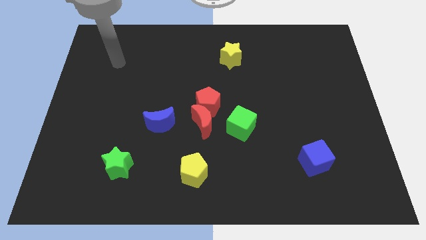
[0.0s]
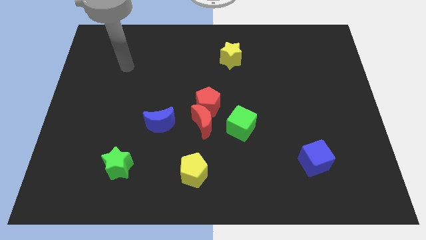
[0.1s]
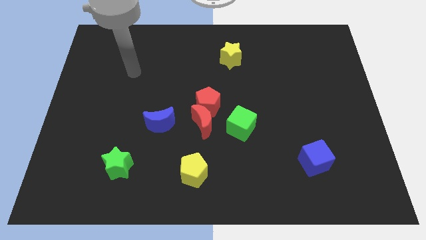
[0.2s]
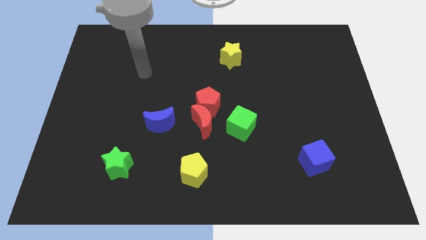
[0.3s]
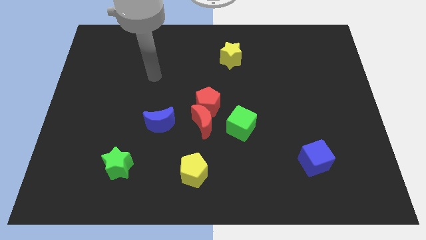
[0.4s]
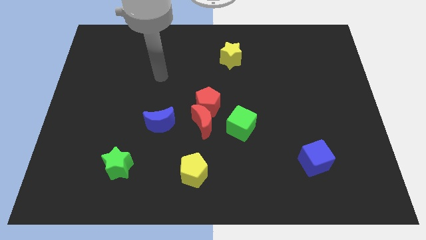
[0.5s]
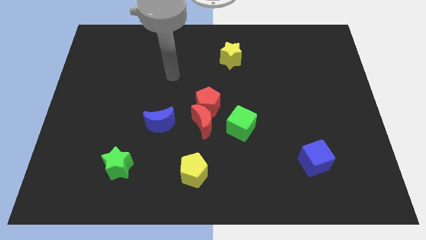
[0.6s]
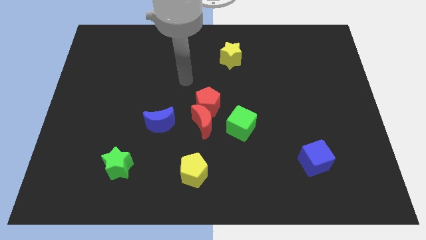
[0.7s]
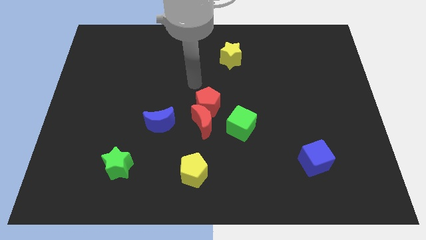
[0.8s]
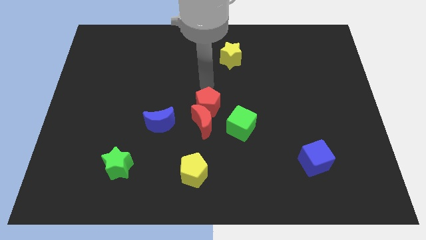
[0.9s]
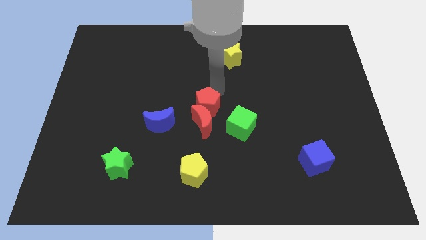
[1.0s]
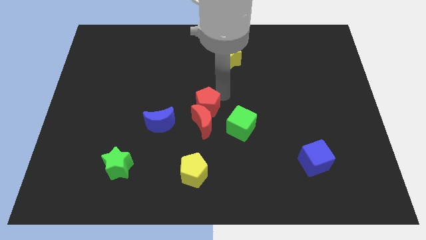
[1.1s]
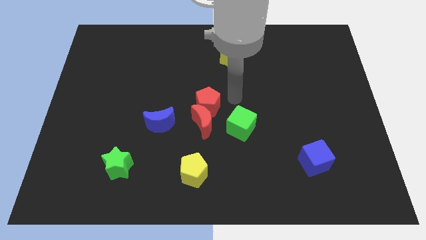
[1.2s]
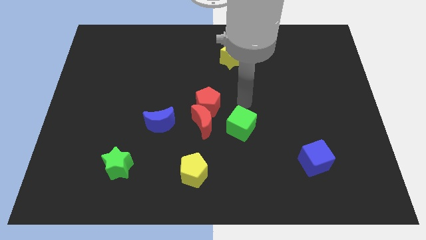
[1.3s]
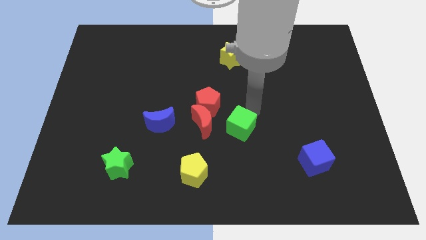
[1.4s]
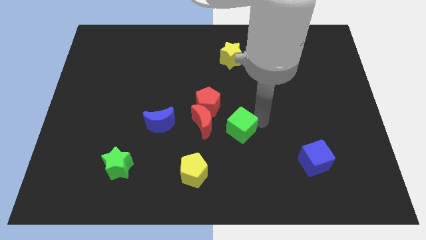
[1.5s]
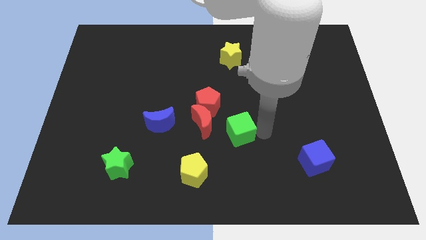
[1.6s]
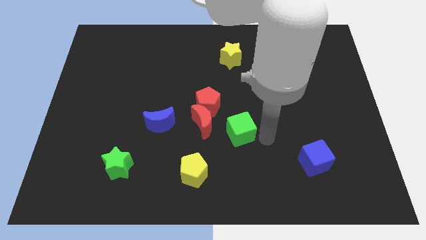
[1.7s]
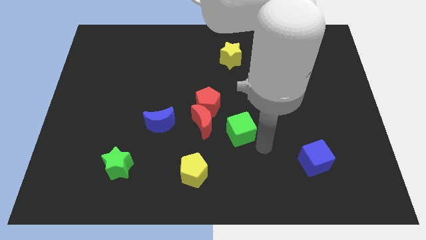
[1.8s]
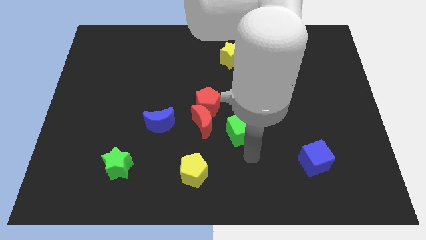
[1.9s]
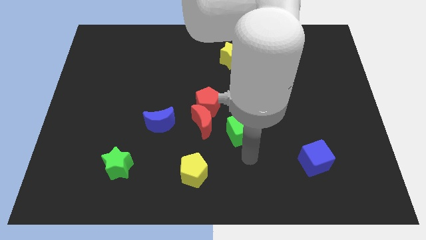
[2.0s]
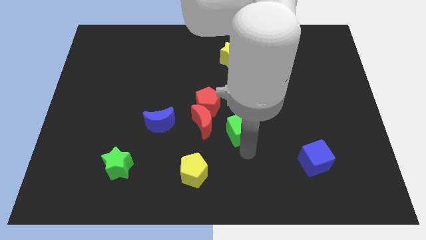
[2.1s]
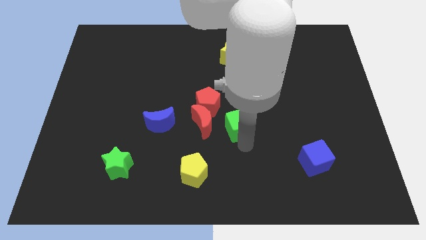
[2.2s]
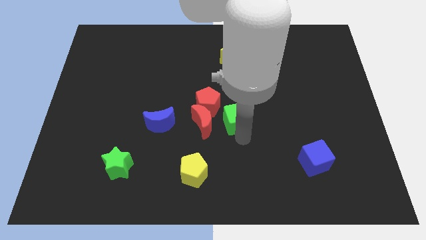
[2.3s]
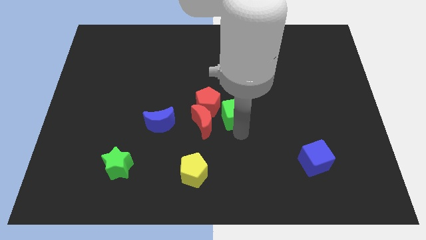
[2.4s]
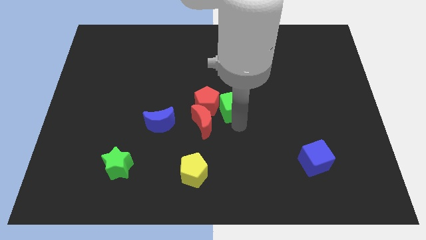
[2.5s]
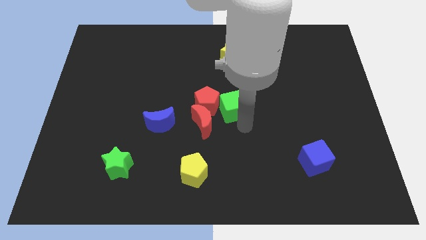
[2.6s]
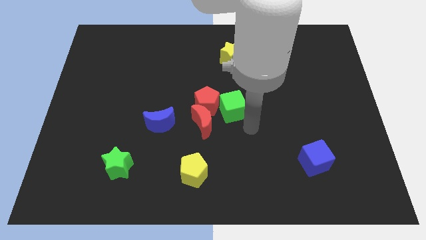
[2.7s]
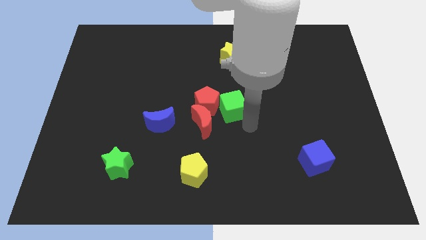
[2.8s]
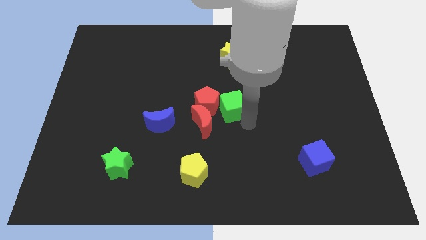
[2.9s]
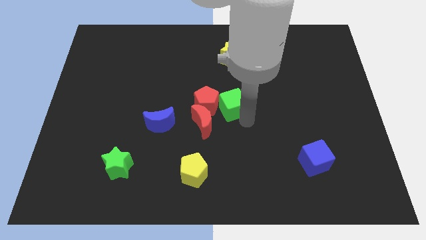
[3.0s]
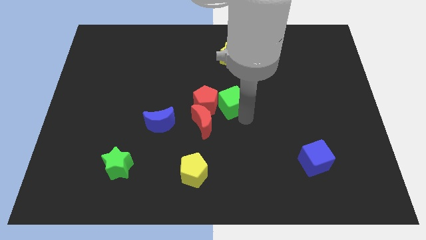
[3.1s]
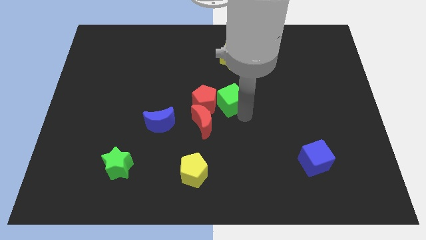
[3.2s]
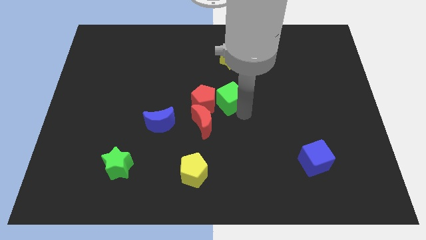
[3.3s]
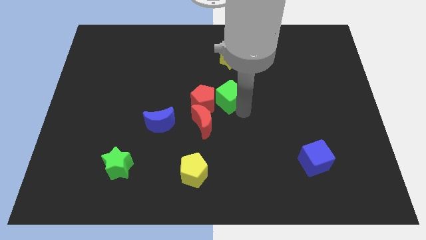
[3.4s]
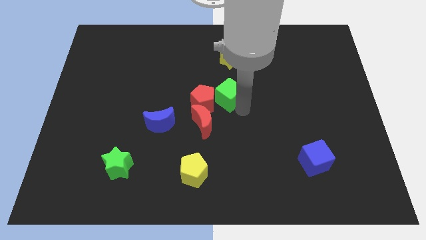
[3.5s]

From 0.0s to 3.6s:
slightly push the green cube diagonally upwards and to the left

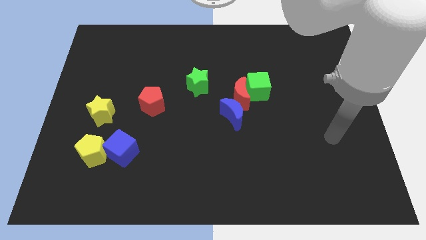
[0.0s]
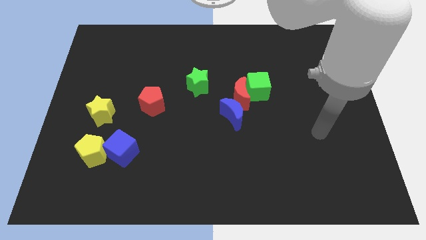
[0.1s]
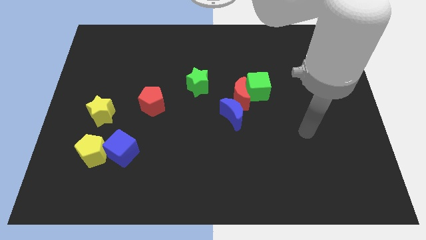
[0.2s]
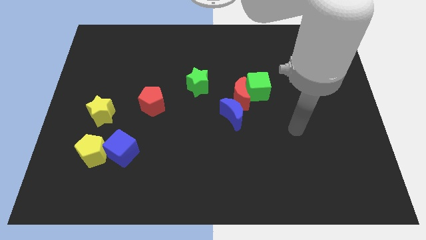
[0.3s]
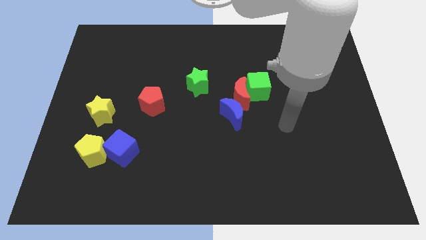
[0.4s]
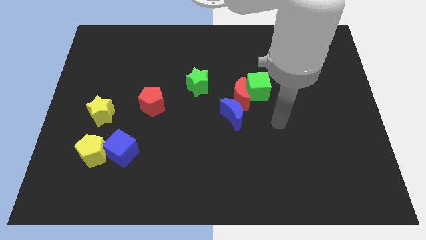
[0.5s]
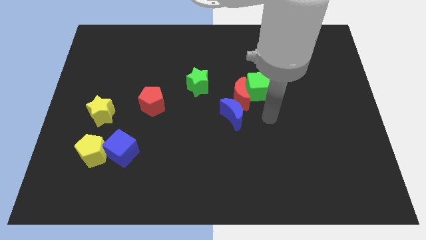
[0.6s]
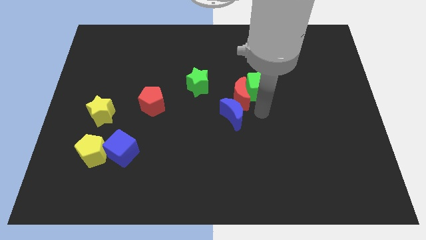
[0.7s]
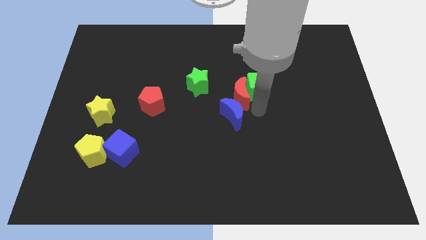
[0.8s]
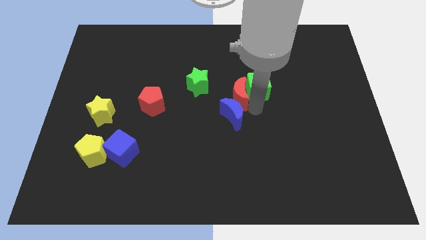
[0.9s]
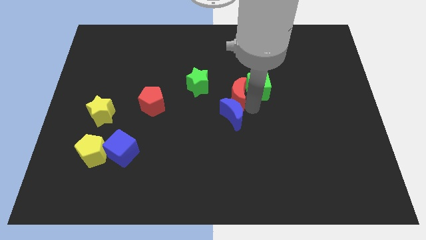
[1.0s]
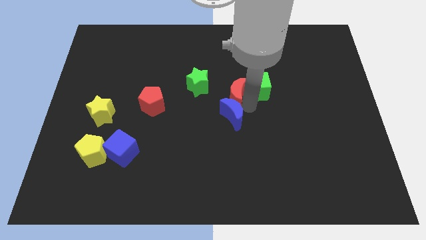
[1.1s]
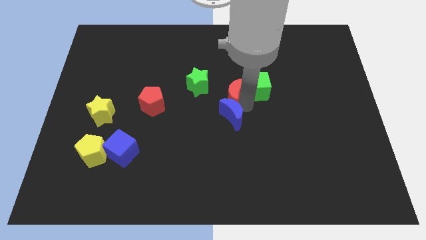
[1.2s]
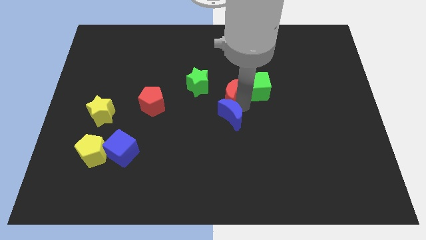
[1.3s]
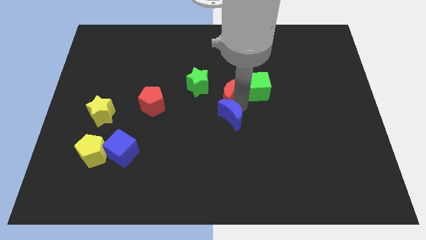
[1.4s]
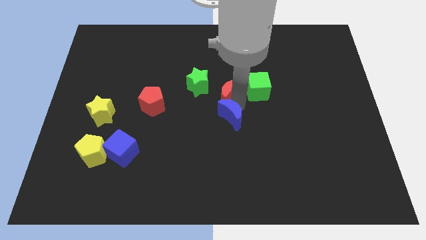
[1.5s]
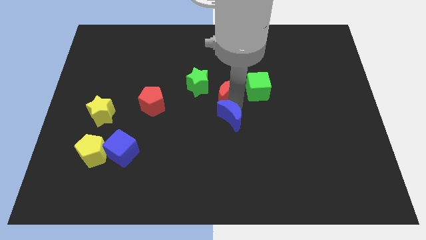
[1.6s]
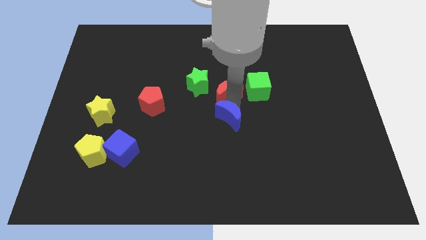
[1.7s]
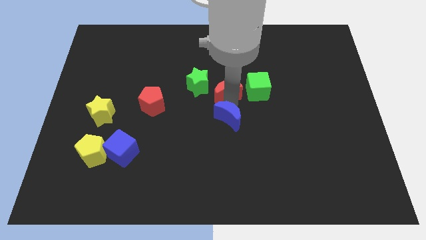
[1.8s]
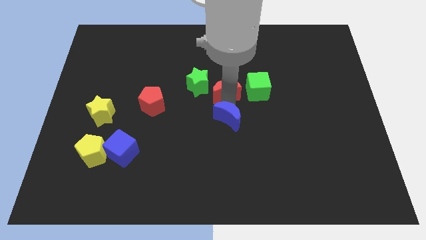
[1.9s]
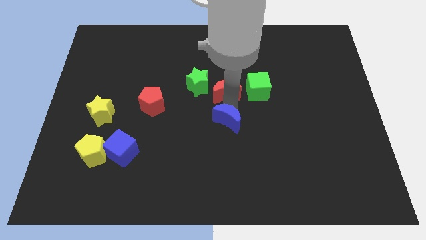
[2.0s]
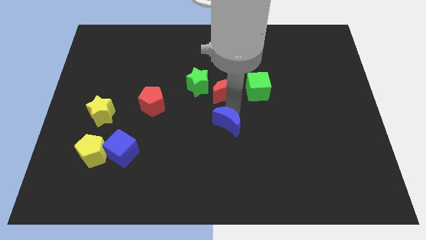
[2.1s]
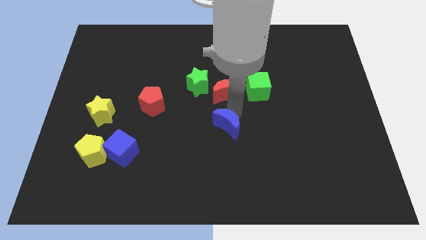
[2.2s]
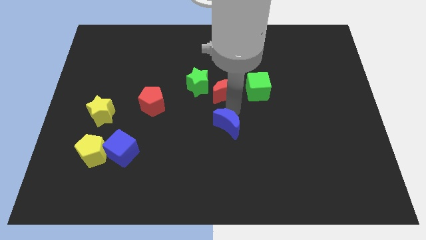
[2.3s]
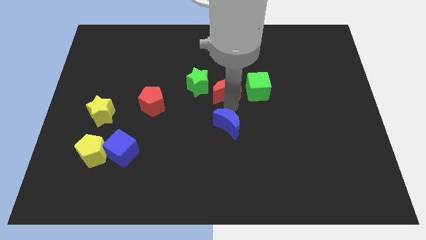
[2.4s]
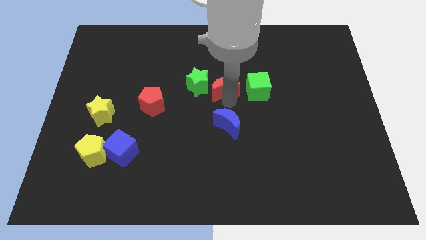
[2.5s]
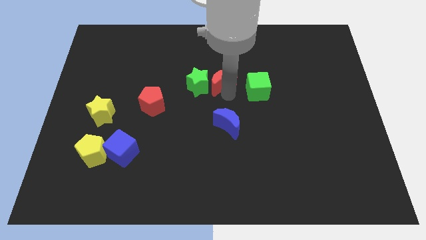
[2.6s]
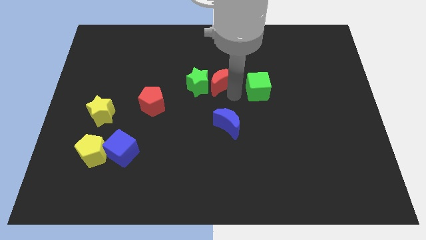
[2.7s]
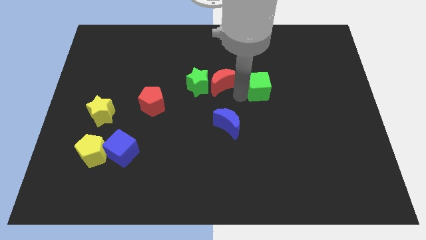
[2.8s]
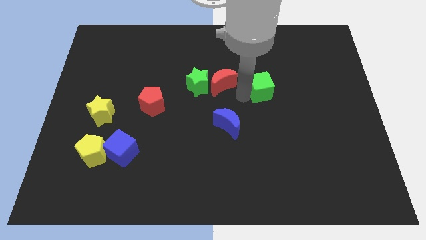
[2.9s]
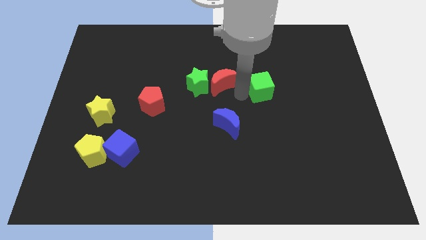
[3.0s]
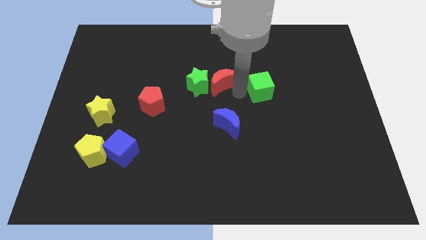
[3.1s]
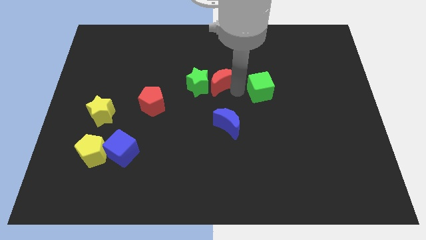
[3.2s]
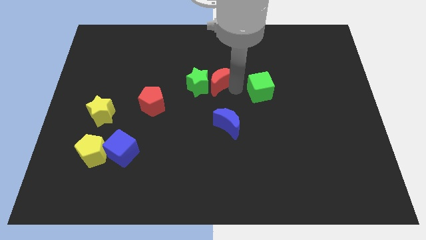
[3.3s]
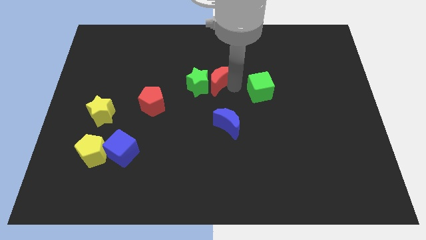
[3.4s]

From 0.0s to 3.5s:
push the red moon upwards and left diagonally a little

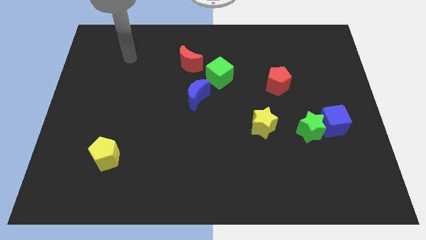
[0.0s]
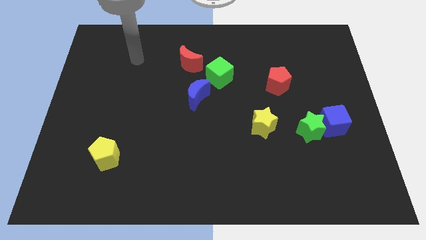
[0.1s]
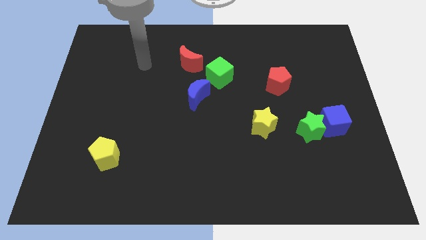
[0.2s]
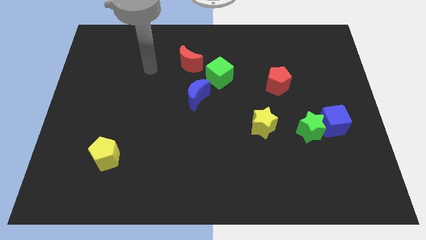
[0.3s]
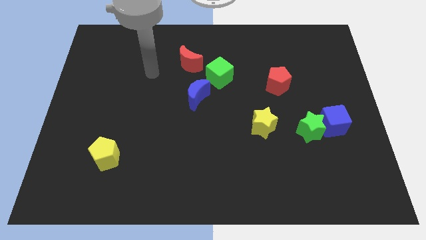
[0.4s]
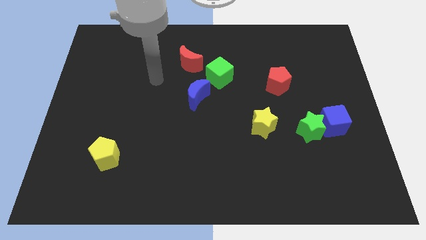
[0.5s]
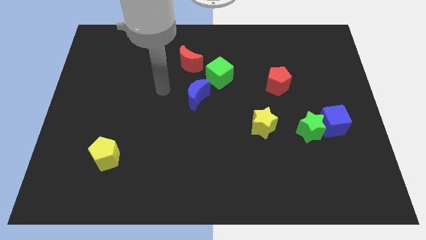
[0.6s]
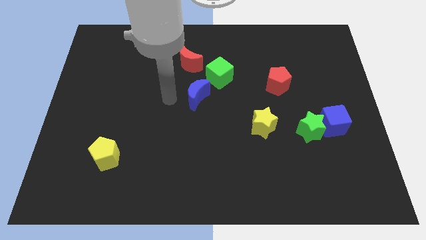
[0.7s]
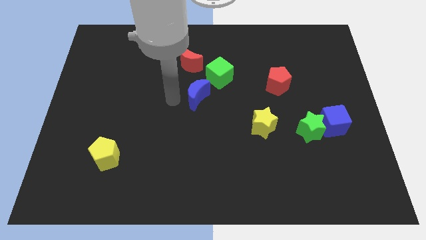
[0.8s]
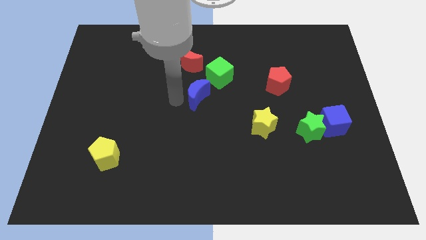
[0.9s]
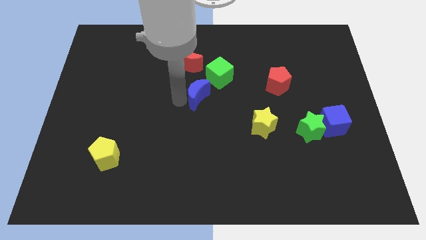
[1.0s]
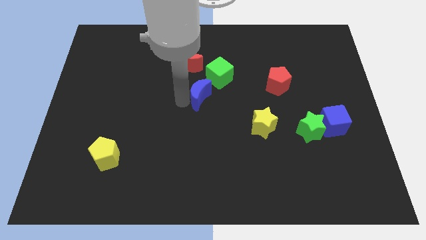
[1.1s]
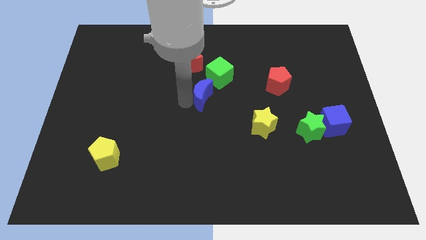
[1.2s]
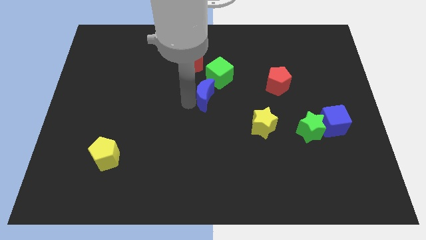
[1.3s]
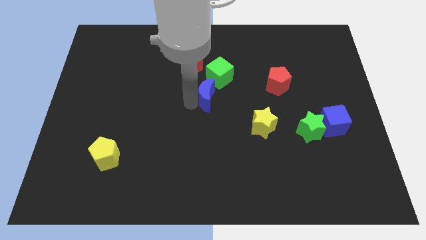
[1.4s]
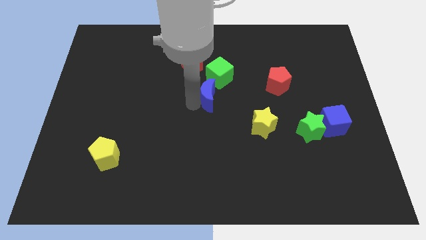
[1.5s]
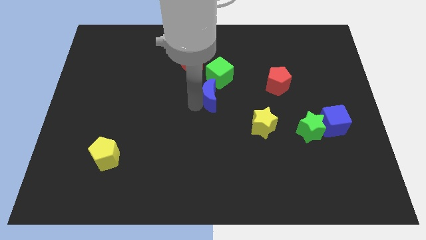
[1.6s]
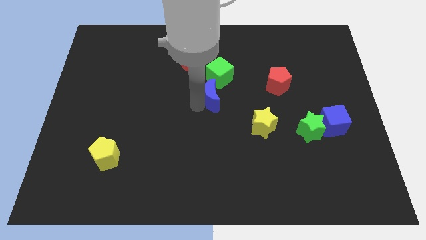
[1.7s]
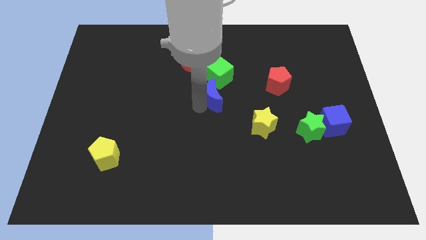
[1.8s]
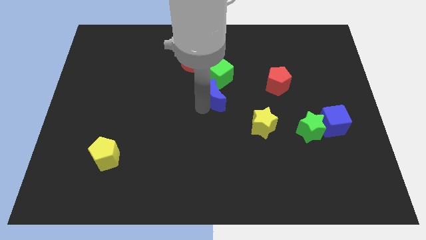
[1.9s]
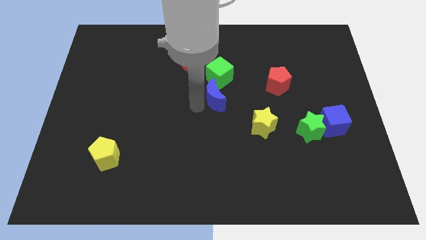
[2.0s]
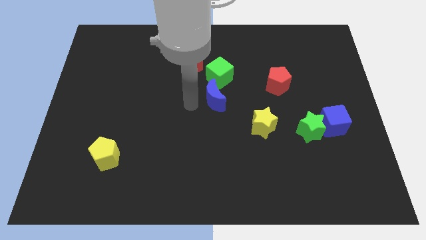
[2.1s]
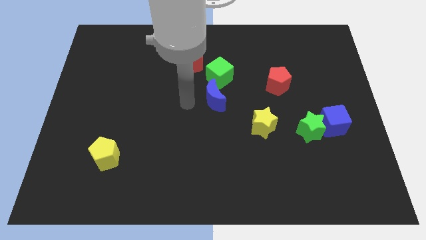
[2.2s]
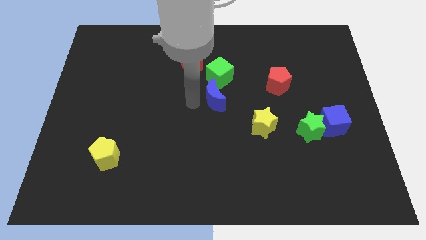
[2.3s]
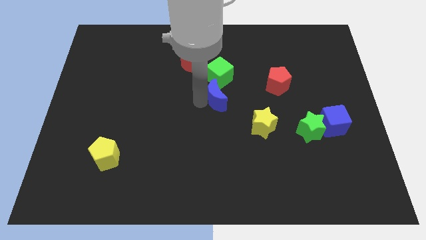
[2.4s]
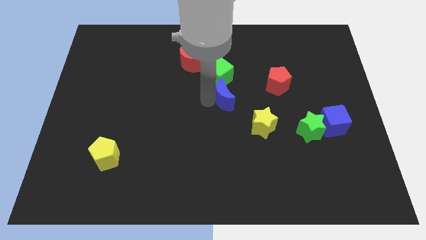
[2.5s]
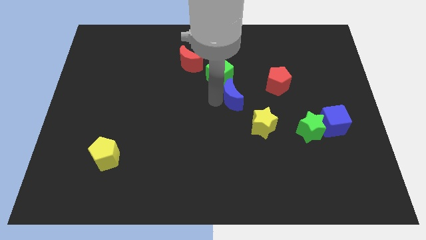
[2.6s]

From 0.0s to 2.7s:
move the blue moon right somewhat
